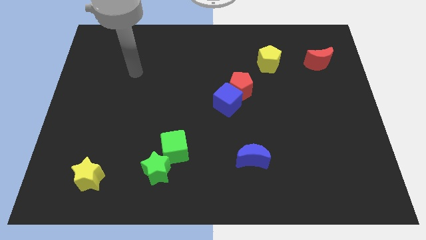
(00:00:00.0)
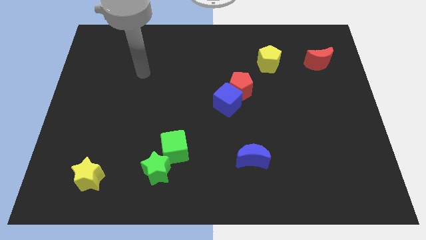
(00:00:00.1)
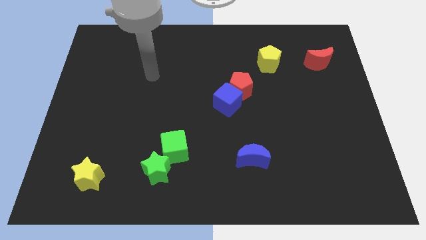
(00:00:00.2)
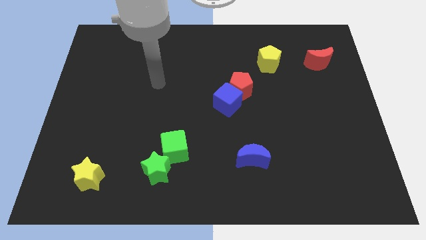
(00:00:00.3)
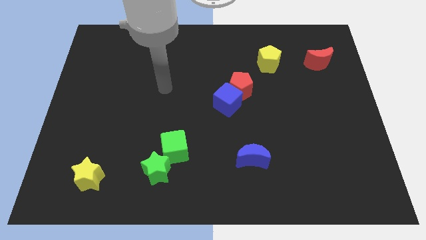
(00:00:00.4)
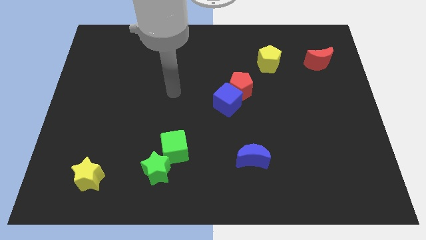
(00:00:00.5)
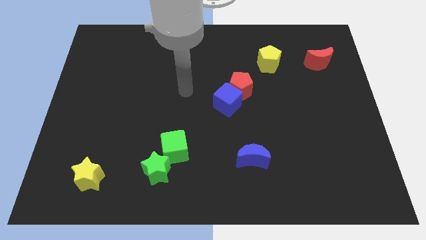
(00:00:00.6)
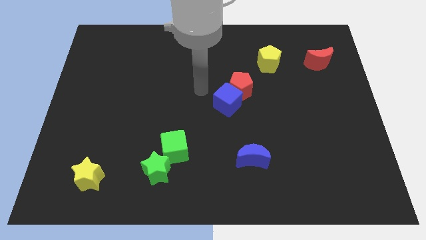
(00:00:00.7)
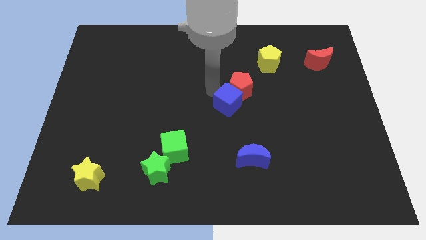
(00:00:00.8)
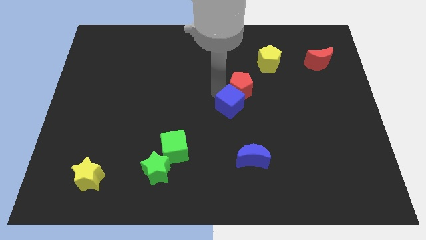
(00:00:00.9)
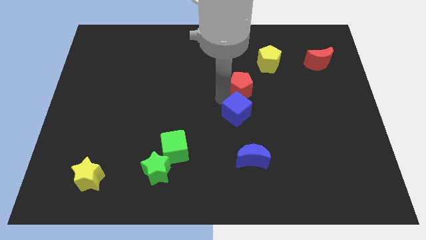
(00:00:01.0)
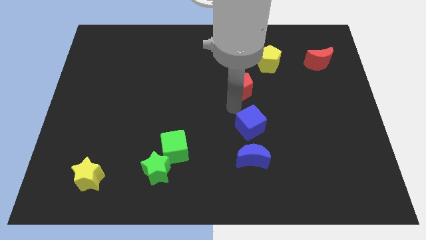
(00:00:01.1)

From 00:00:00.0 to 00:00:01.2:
pull the red pentagon apart from the blue cube

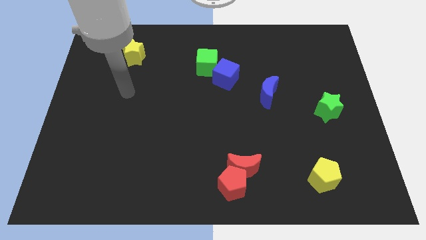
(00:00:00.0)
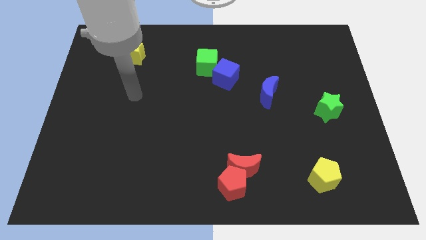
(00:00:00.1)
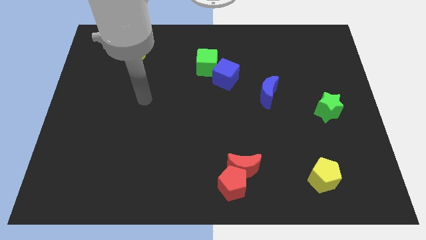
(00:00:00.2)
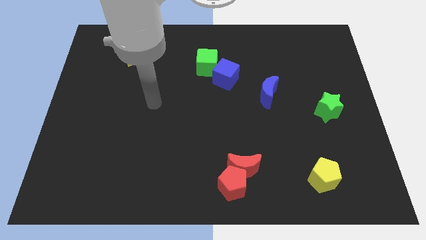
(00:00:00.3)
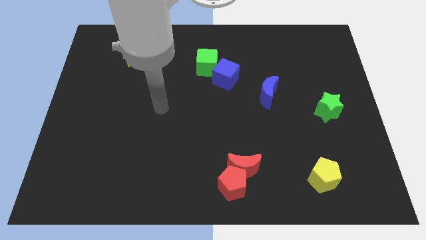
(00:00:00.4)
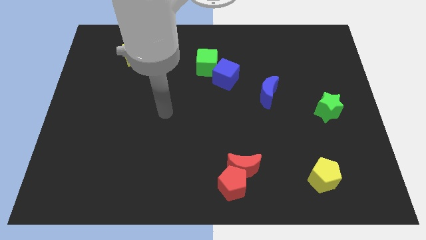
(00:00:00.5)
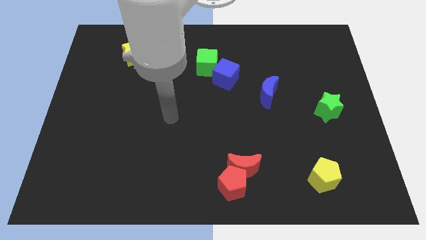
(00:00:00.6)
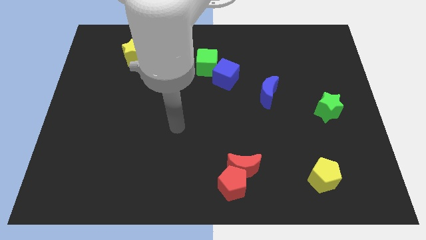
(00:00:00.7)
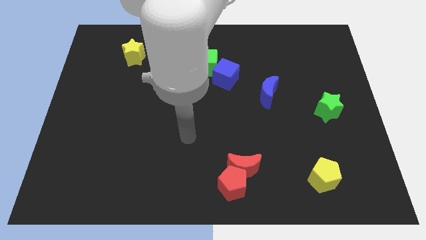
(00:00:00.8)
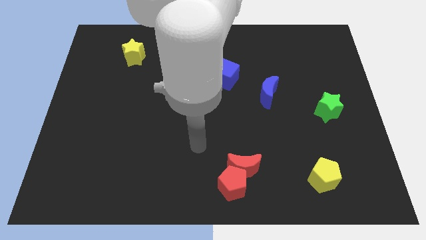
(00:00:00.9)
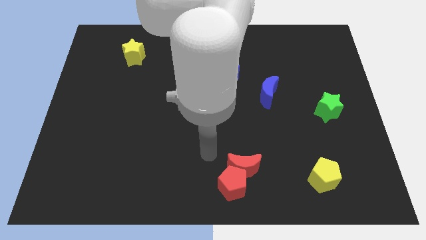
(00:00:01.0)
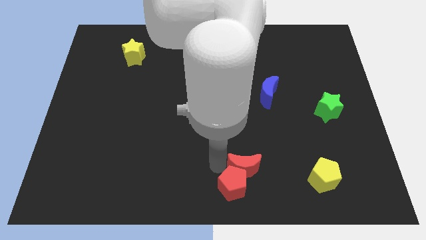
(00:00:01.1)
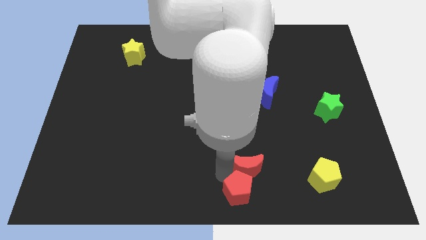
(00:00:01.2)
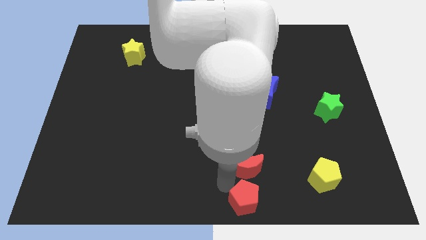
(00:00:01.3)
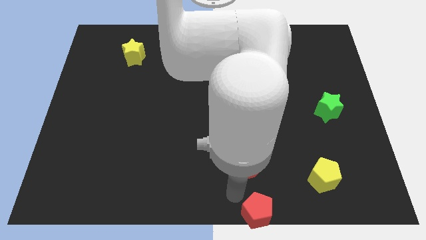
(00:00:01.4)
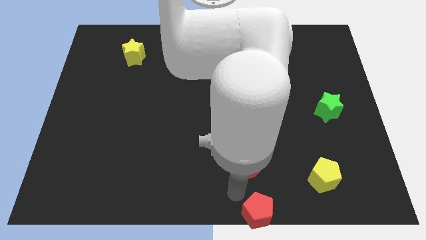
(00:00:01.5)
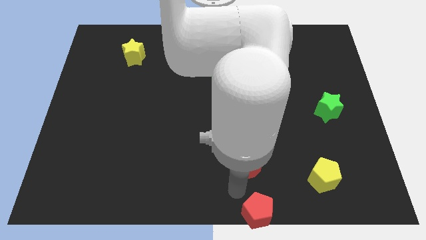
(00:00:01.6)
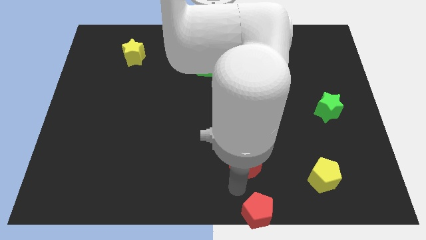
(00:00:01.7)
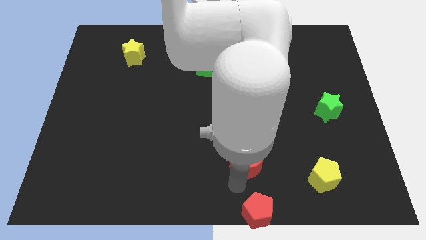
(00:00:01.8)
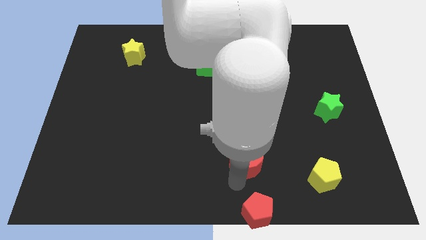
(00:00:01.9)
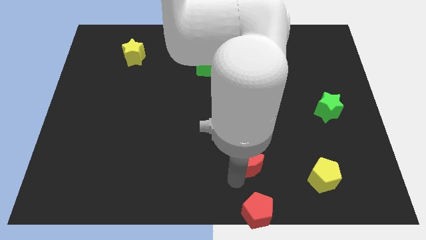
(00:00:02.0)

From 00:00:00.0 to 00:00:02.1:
move the red moon away from the red pentagon

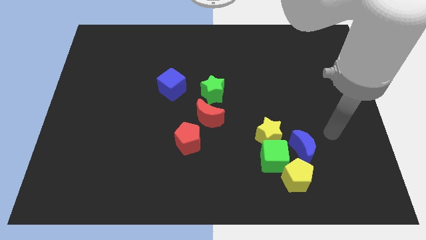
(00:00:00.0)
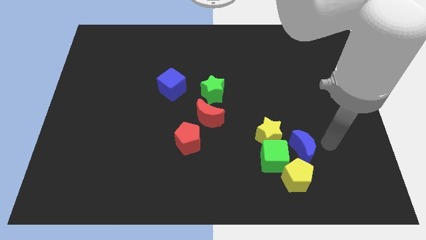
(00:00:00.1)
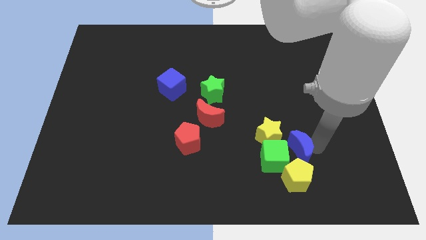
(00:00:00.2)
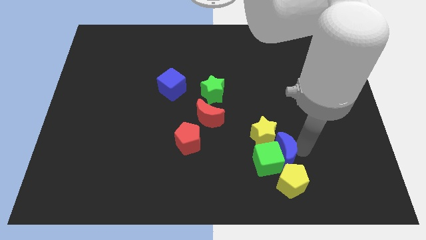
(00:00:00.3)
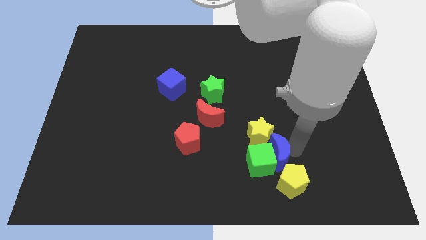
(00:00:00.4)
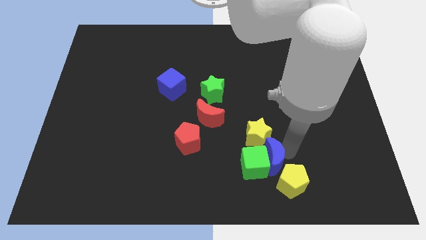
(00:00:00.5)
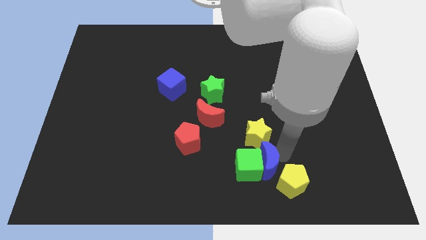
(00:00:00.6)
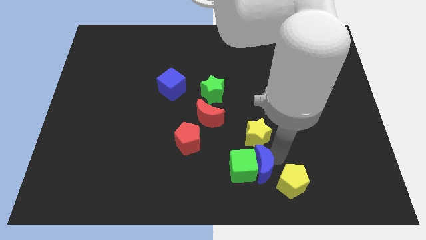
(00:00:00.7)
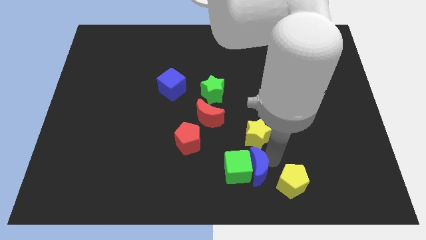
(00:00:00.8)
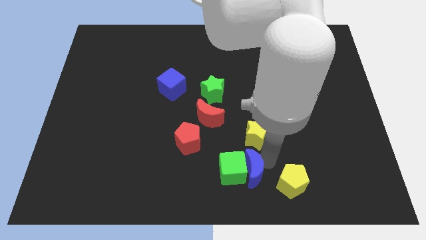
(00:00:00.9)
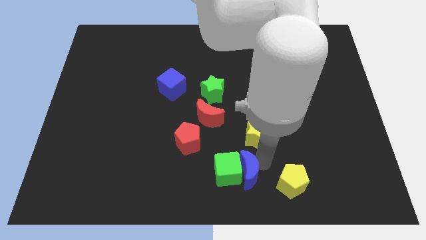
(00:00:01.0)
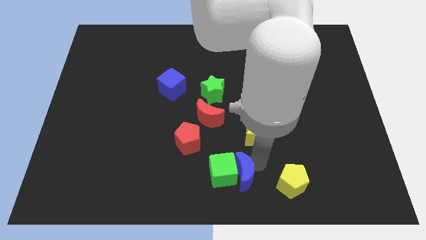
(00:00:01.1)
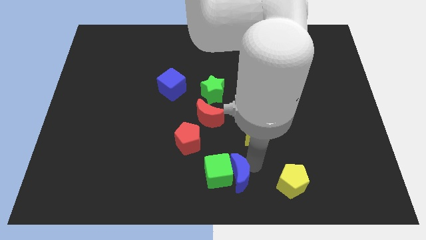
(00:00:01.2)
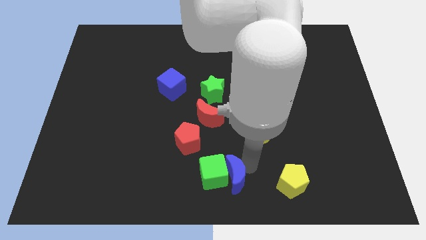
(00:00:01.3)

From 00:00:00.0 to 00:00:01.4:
pull the green cube apart from the group

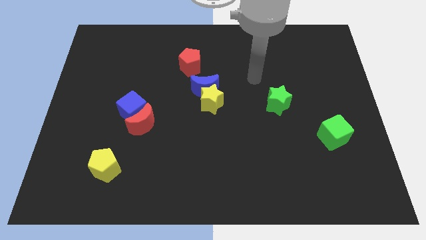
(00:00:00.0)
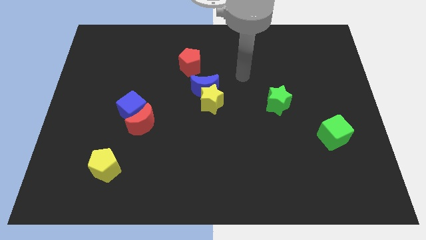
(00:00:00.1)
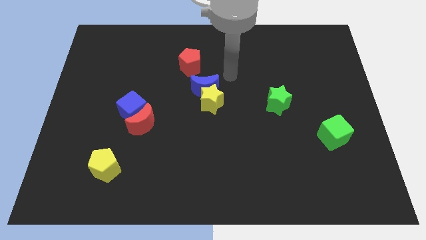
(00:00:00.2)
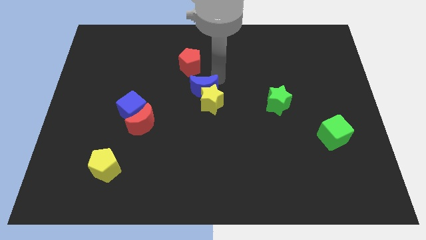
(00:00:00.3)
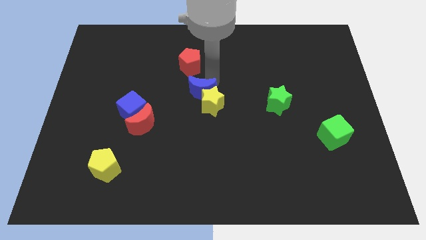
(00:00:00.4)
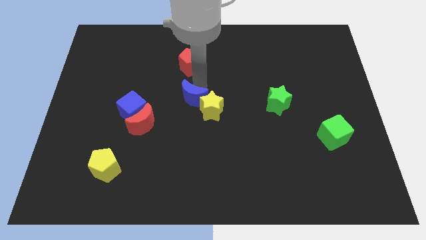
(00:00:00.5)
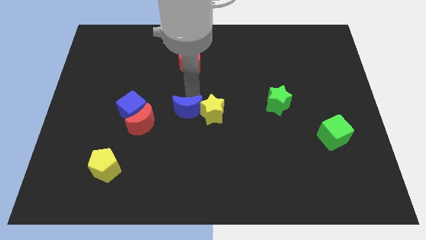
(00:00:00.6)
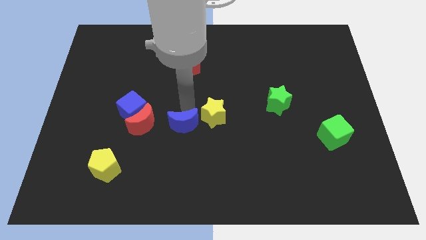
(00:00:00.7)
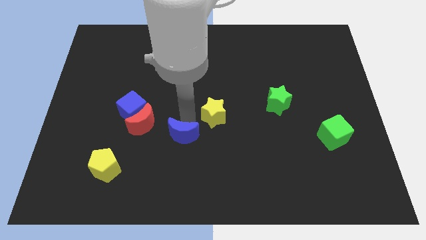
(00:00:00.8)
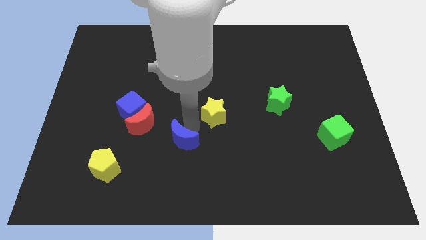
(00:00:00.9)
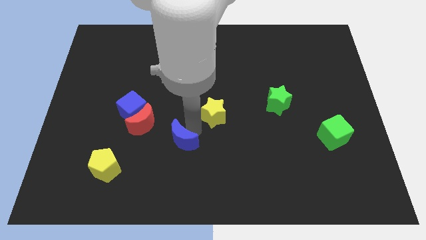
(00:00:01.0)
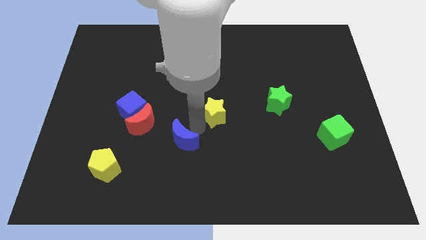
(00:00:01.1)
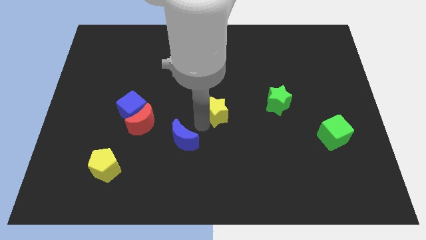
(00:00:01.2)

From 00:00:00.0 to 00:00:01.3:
pull the yellow star apart from the blue moon

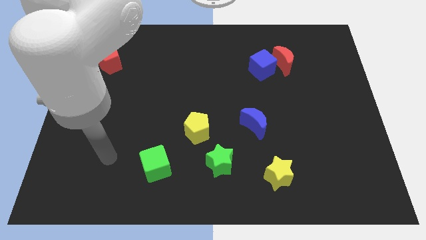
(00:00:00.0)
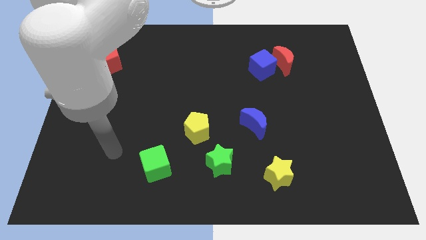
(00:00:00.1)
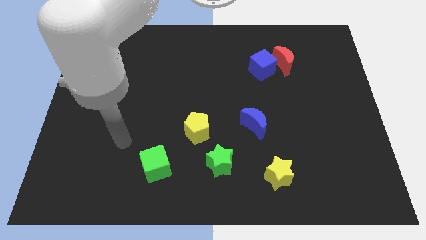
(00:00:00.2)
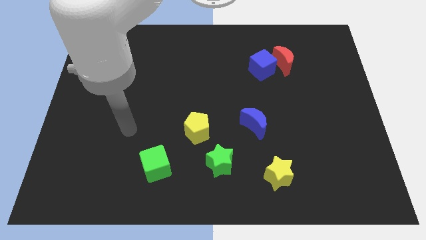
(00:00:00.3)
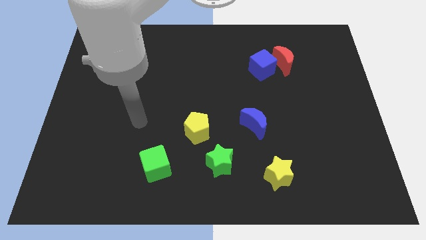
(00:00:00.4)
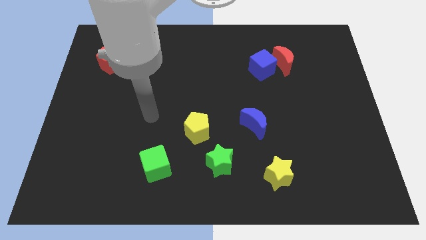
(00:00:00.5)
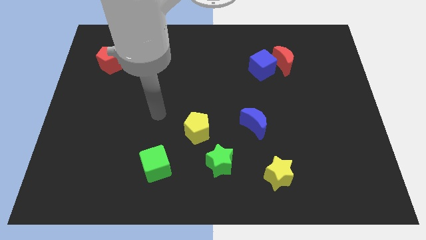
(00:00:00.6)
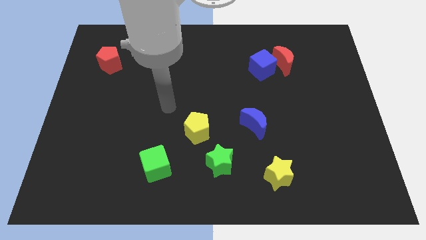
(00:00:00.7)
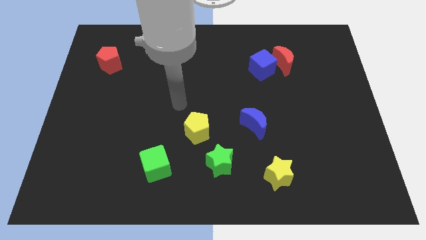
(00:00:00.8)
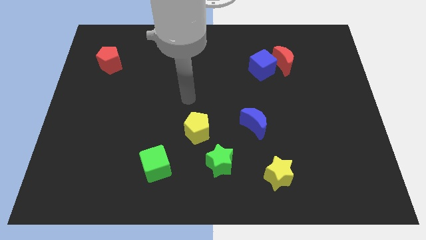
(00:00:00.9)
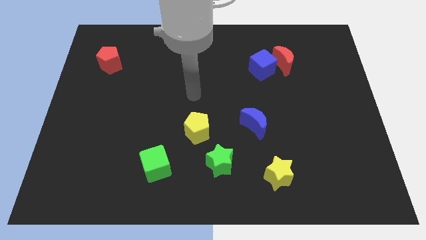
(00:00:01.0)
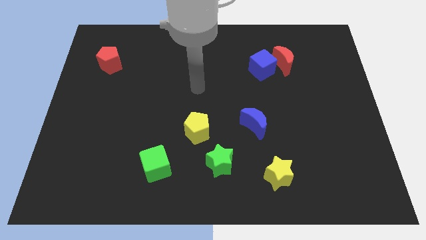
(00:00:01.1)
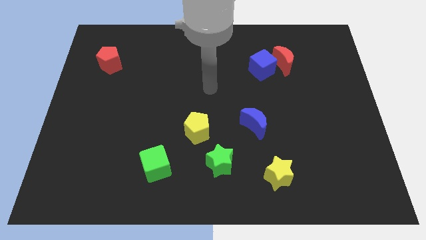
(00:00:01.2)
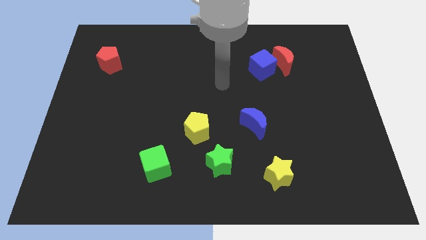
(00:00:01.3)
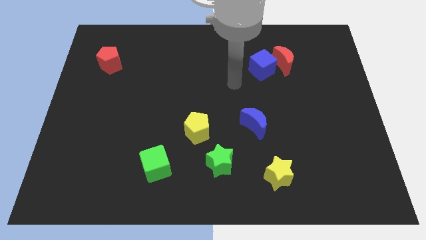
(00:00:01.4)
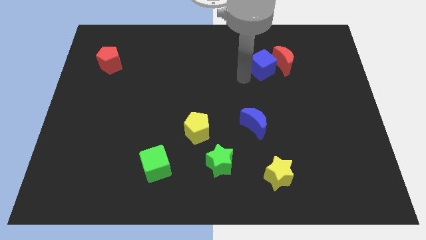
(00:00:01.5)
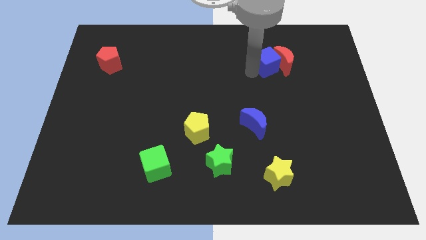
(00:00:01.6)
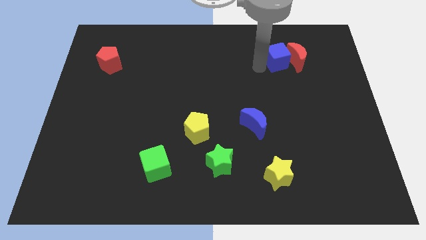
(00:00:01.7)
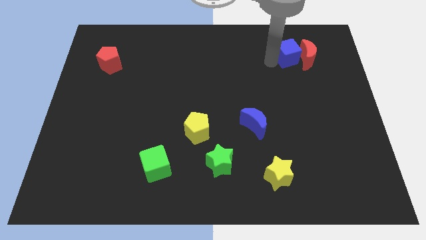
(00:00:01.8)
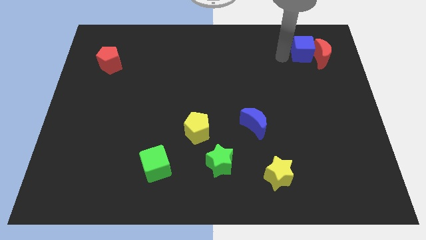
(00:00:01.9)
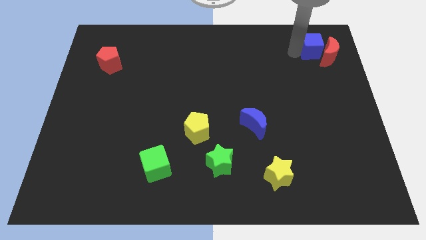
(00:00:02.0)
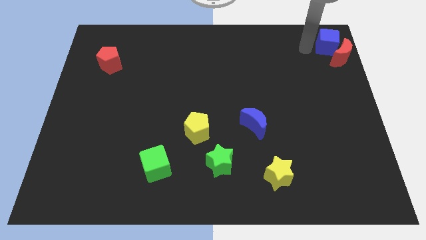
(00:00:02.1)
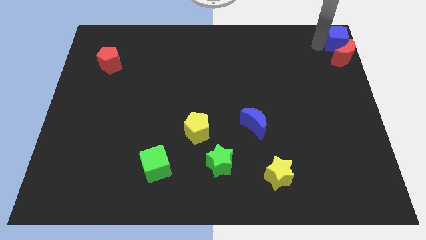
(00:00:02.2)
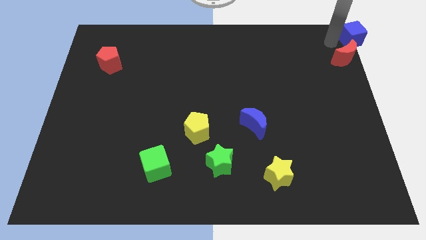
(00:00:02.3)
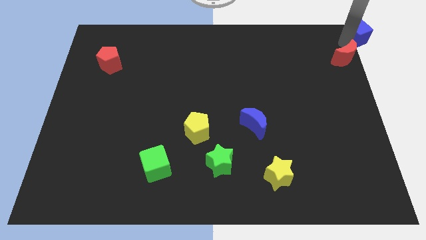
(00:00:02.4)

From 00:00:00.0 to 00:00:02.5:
move the red moon away from the blue cube

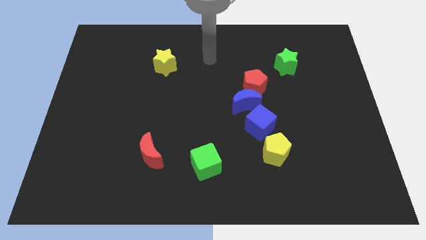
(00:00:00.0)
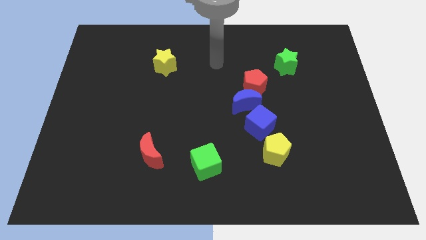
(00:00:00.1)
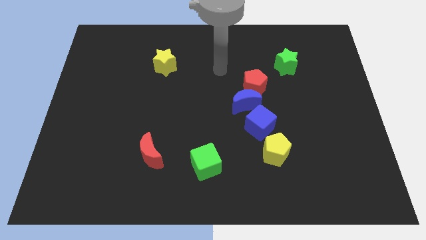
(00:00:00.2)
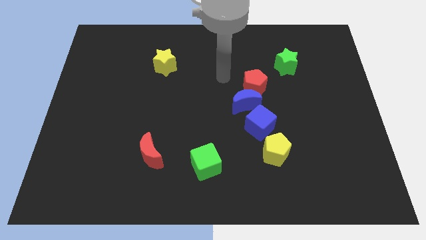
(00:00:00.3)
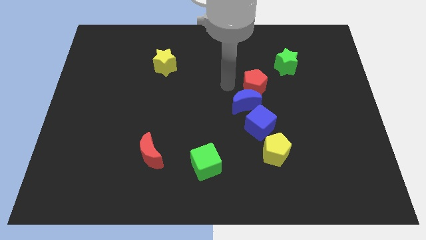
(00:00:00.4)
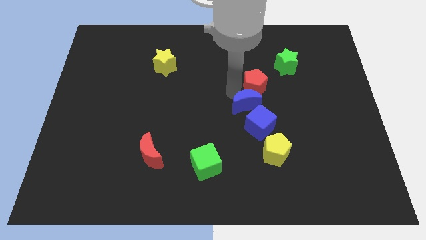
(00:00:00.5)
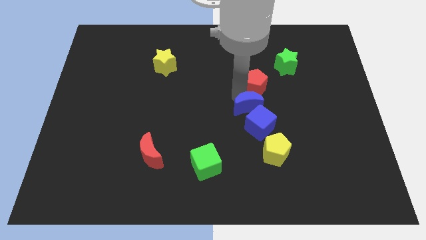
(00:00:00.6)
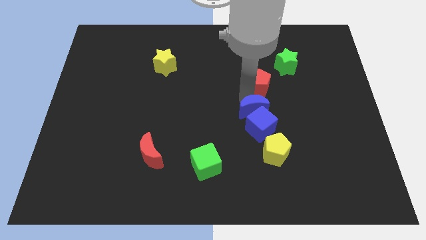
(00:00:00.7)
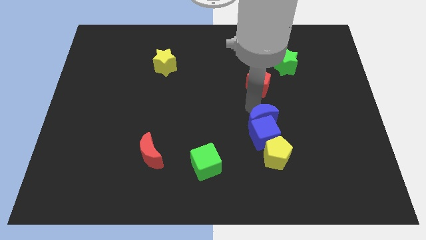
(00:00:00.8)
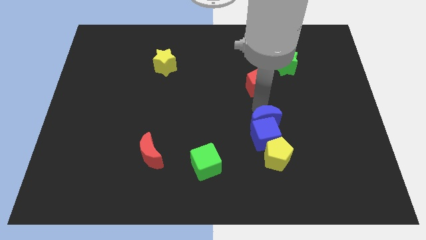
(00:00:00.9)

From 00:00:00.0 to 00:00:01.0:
move the red pentagon away from the blue moon
